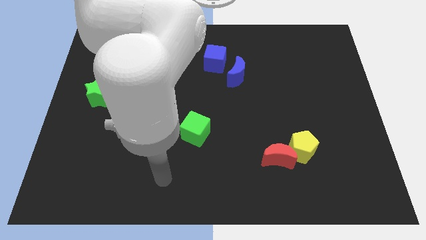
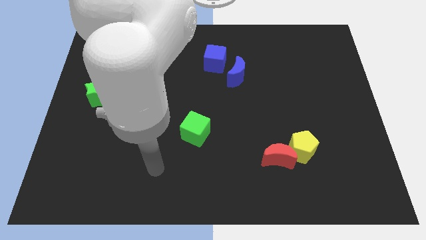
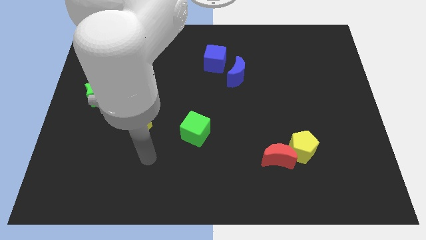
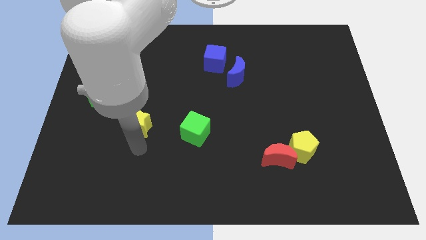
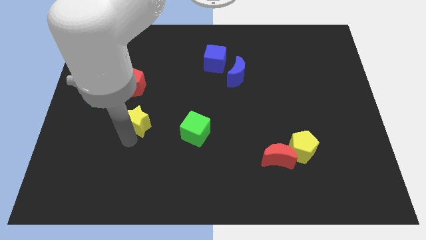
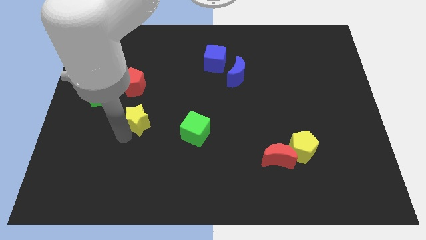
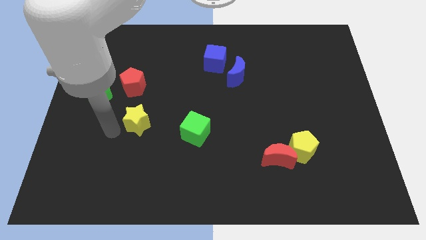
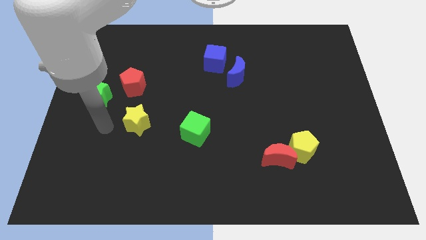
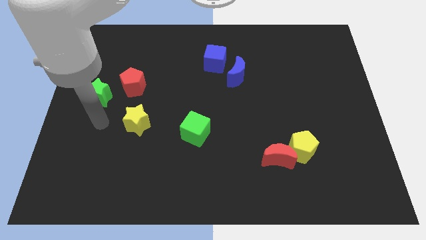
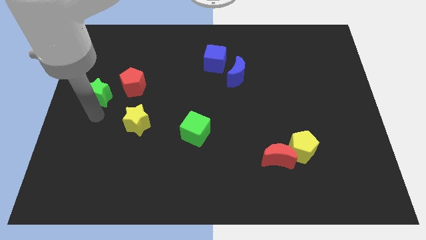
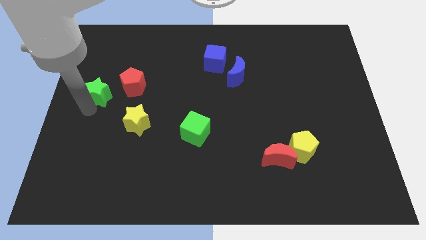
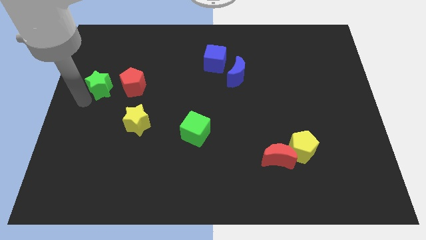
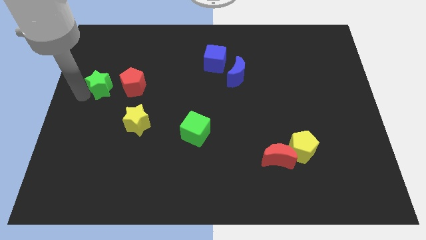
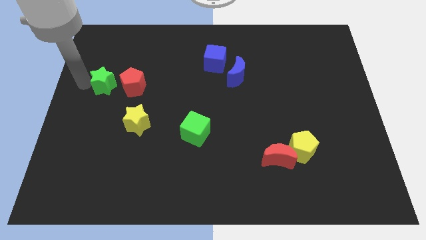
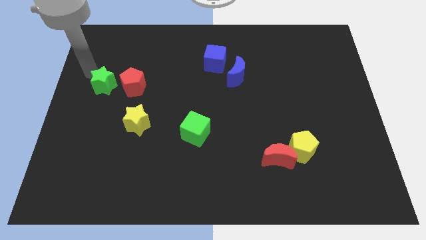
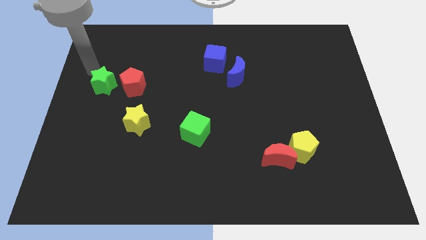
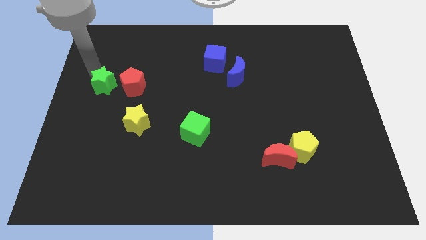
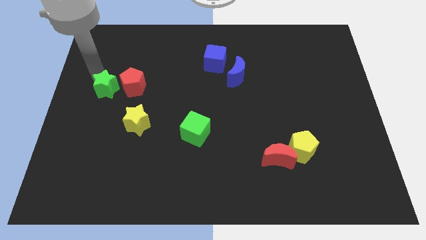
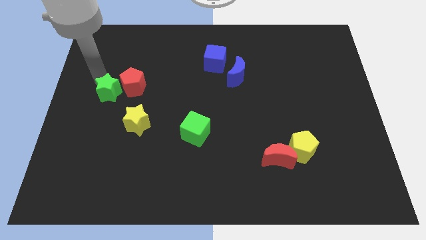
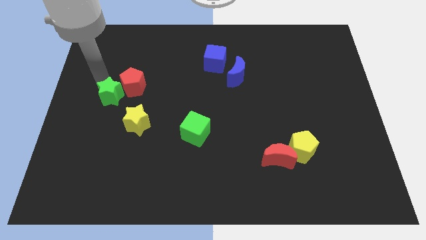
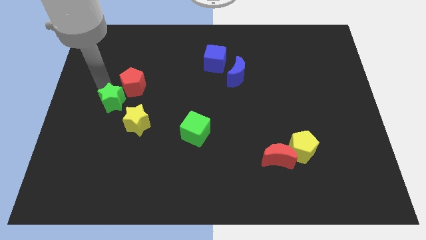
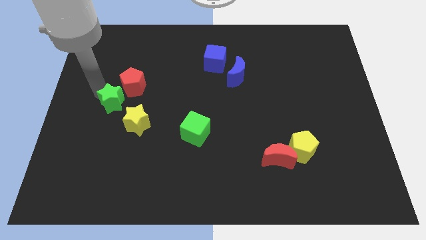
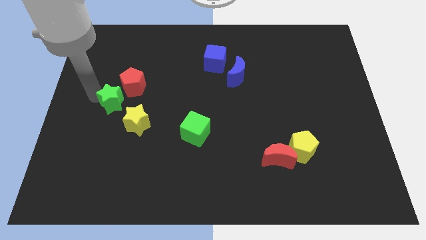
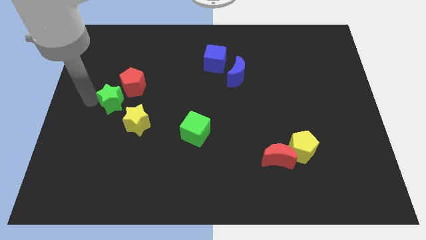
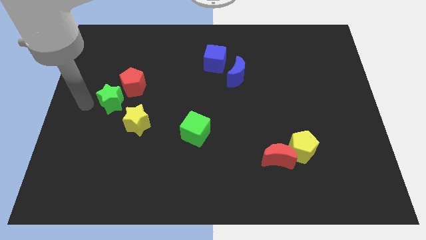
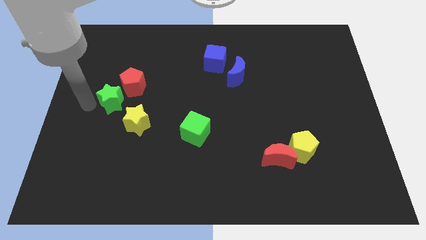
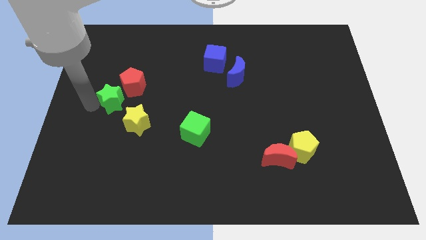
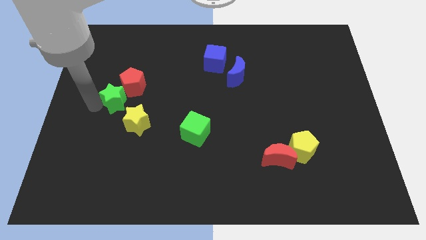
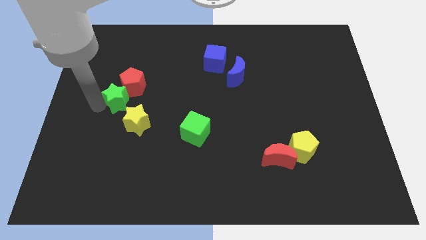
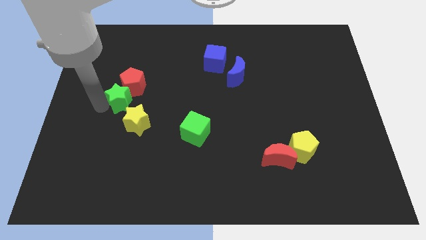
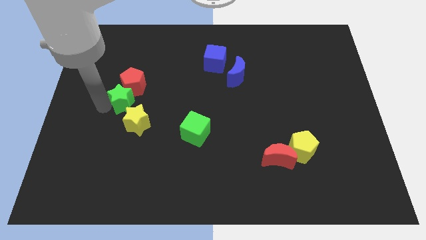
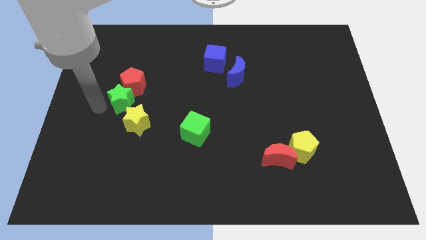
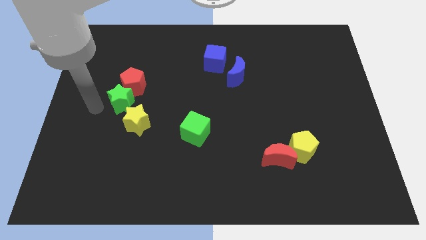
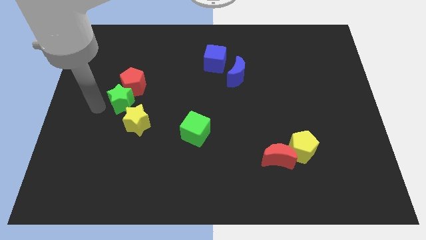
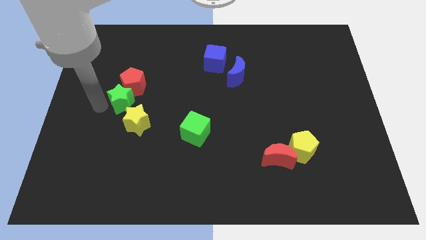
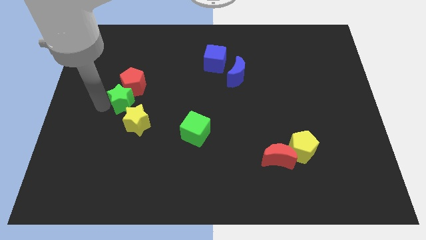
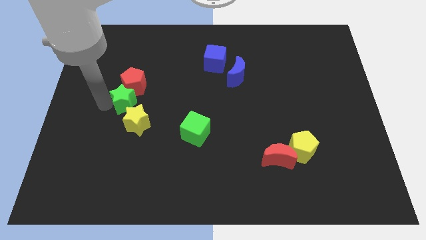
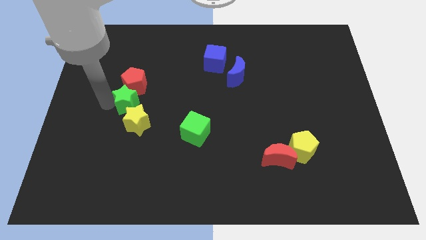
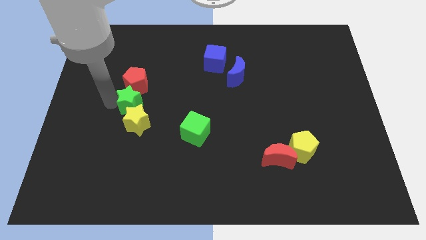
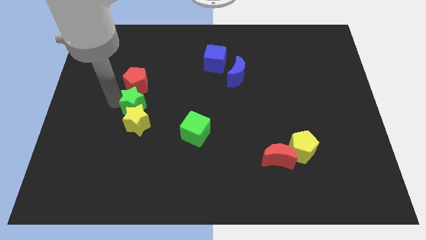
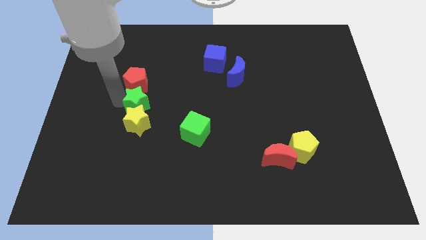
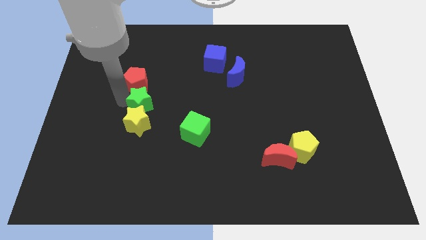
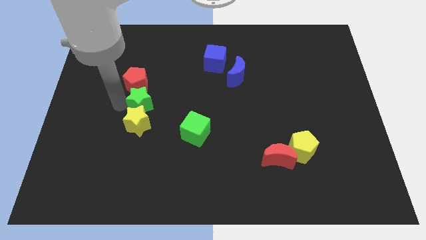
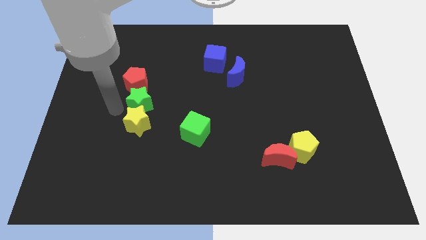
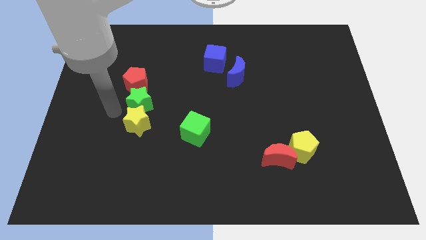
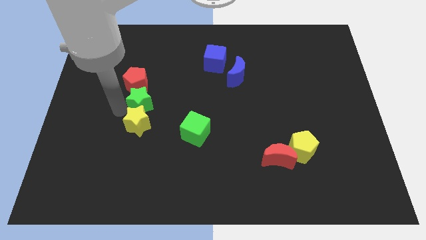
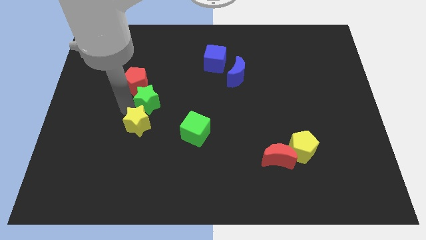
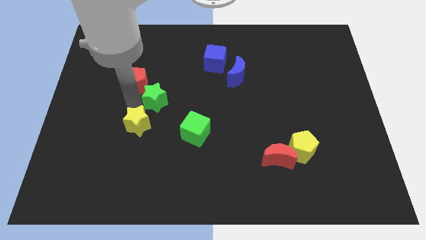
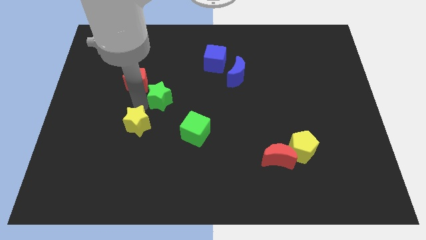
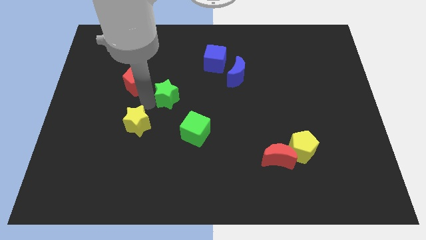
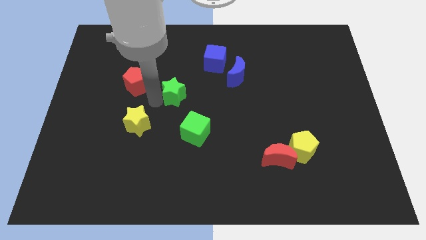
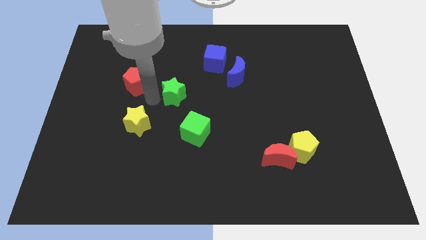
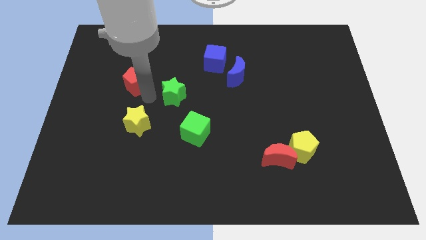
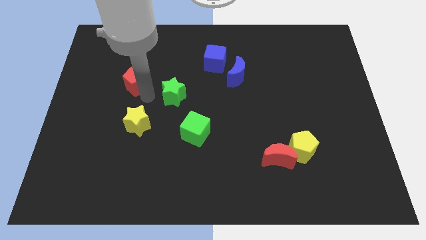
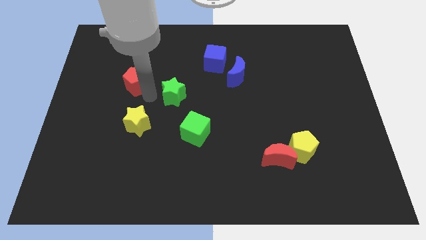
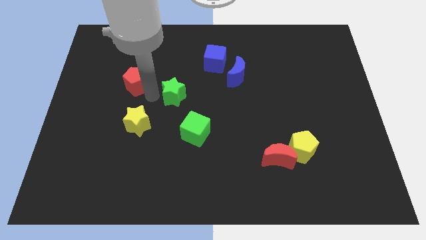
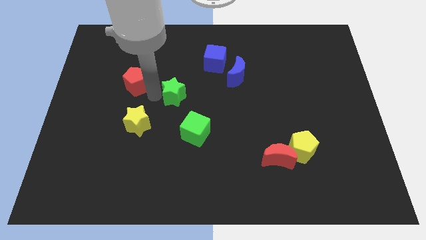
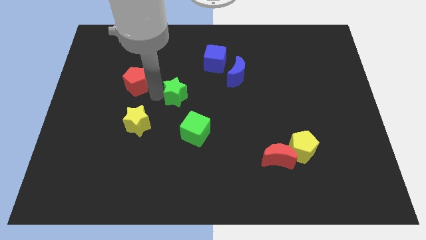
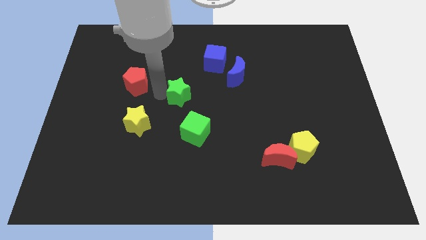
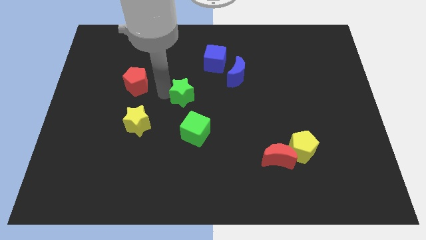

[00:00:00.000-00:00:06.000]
slide the green star to the right

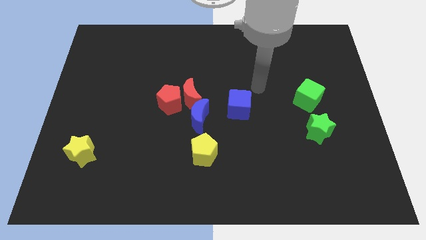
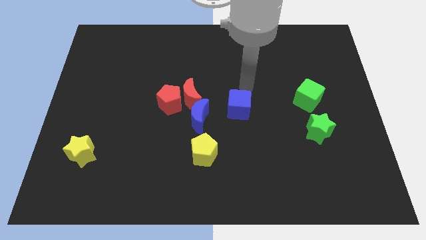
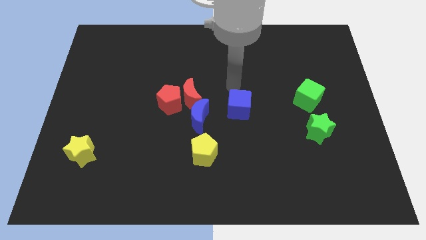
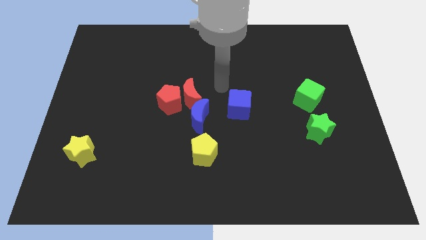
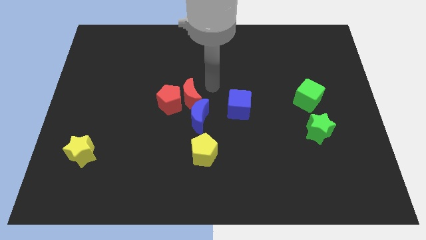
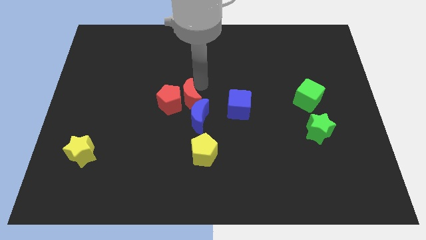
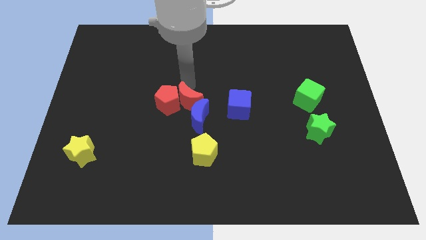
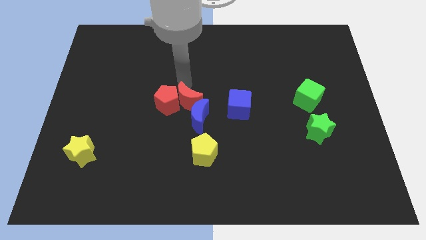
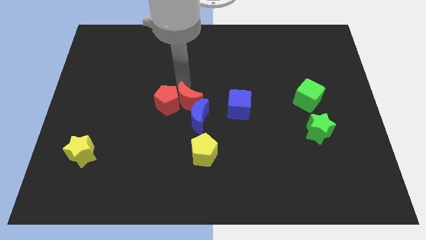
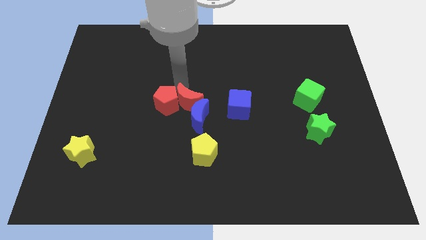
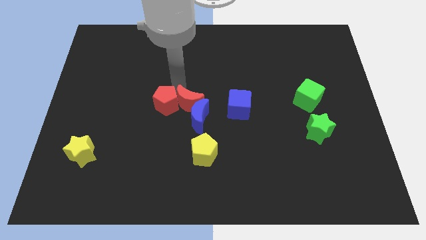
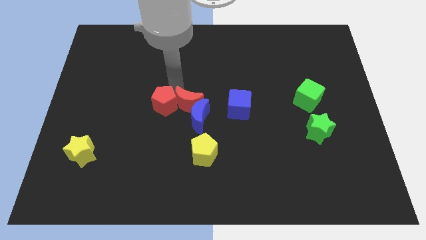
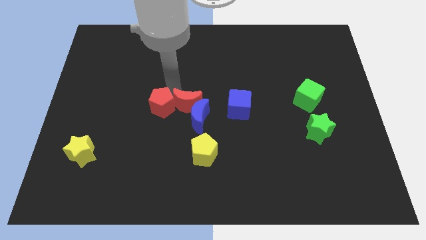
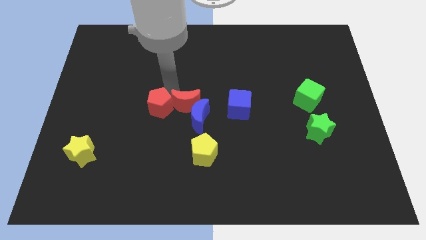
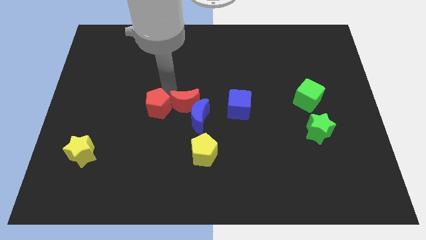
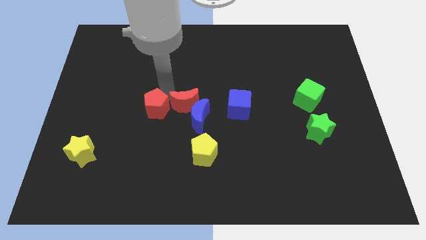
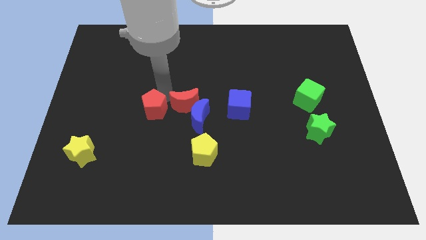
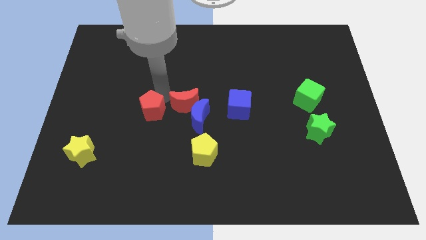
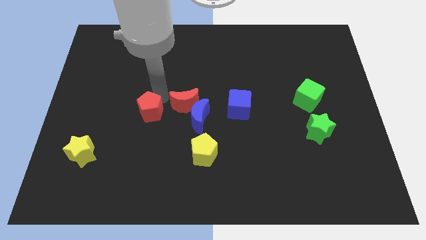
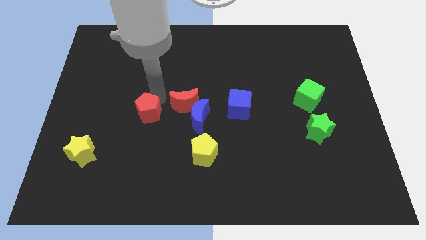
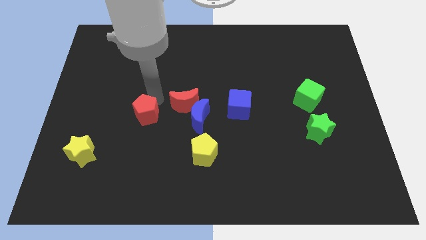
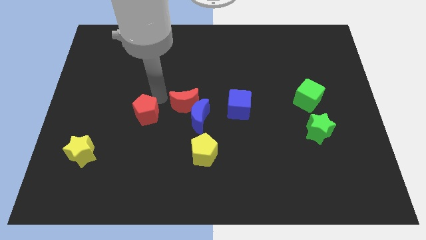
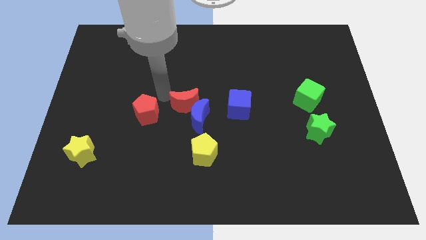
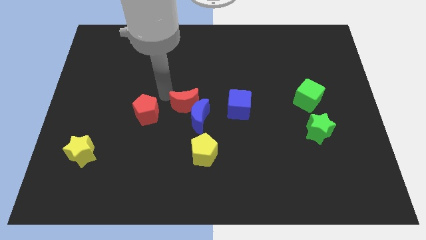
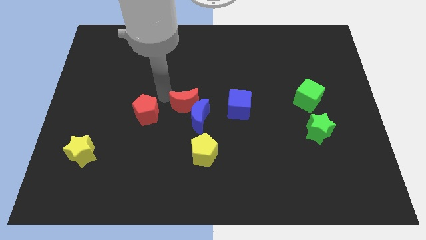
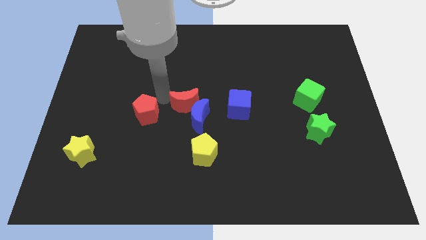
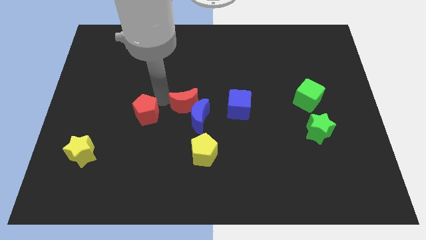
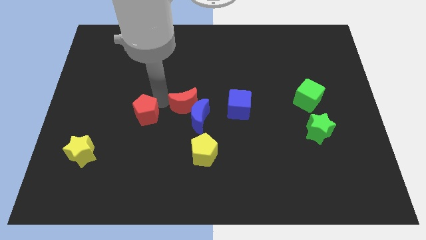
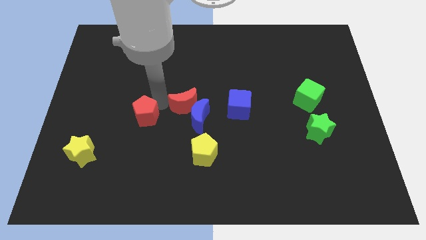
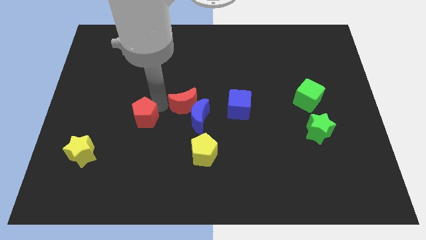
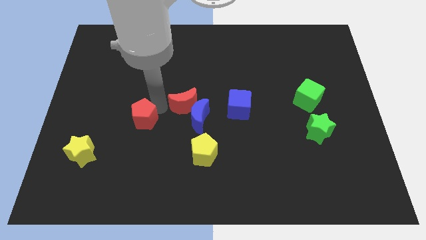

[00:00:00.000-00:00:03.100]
slightly push the red pentagon diagonally downwards and to the left
